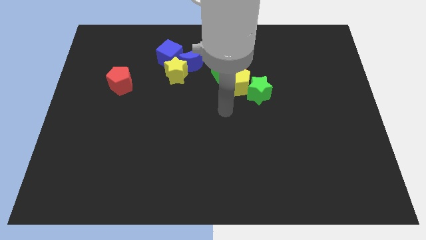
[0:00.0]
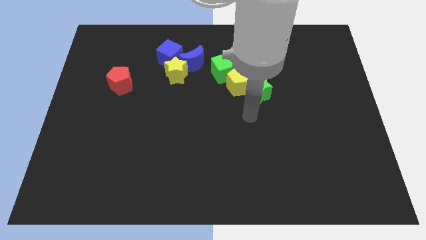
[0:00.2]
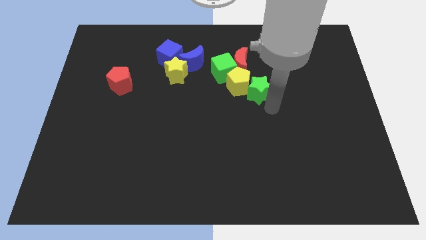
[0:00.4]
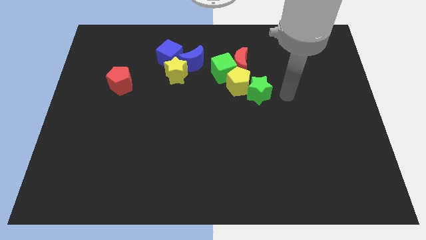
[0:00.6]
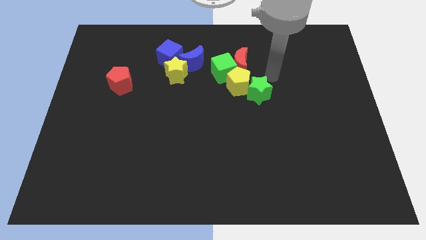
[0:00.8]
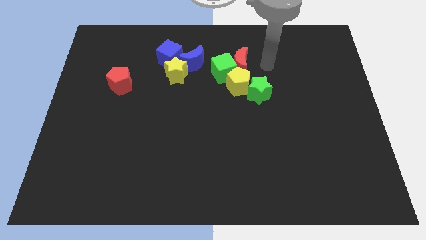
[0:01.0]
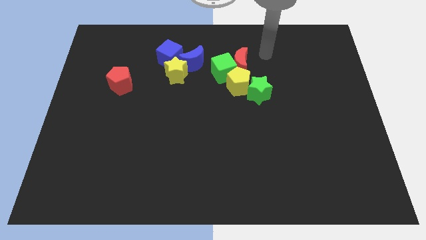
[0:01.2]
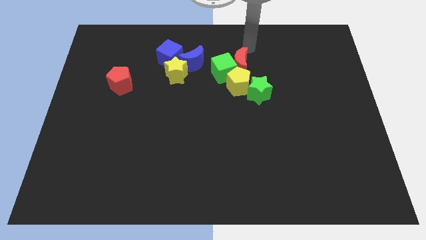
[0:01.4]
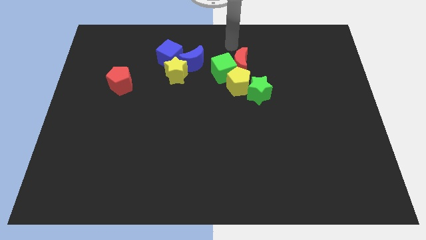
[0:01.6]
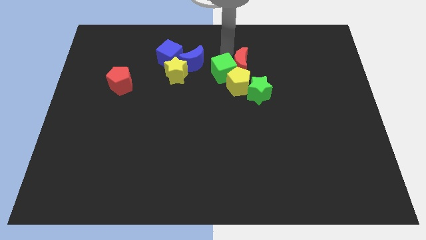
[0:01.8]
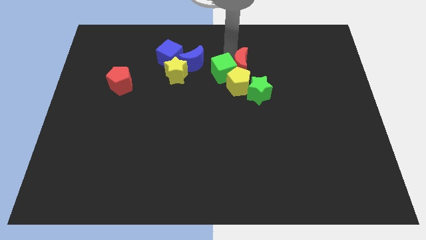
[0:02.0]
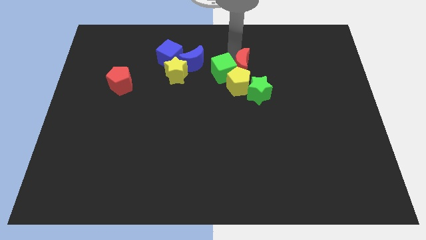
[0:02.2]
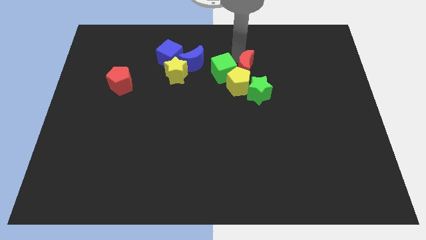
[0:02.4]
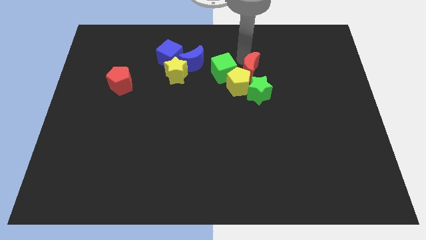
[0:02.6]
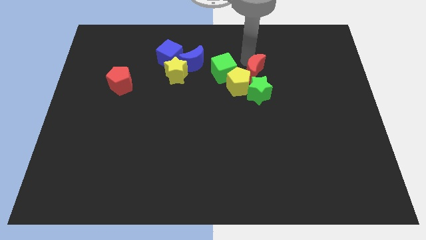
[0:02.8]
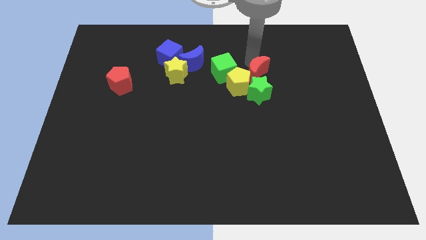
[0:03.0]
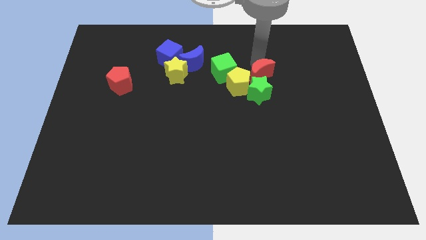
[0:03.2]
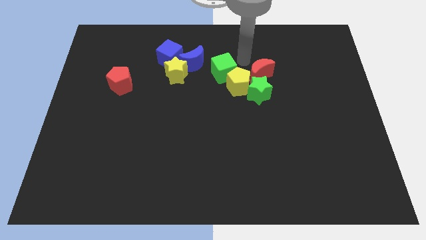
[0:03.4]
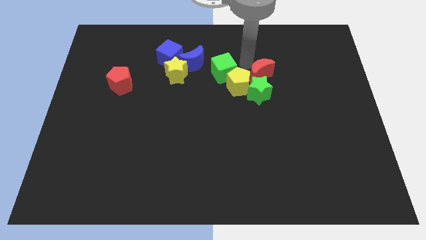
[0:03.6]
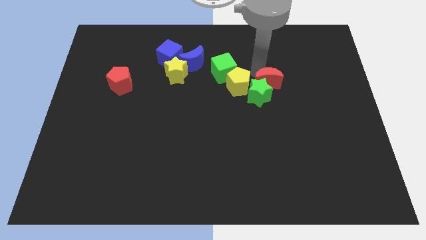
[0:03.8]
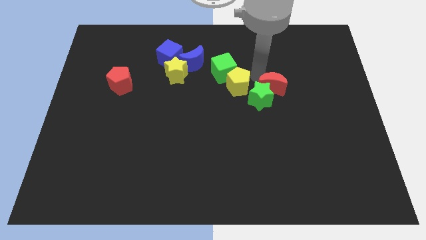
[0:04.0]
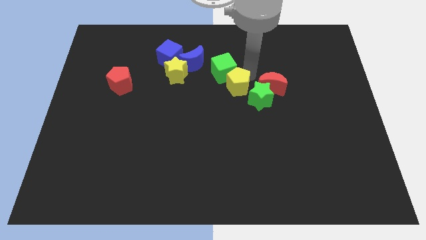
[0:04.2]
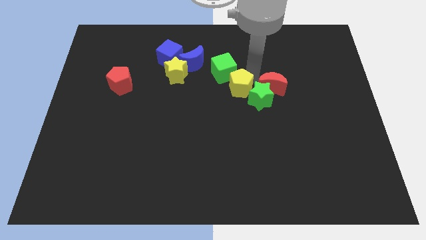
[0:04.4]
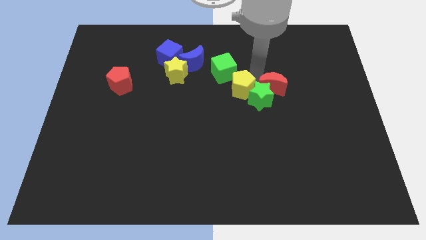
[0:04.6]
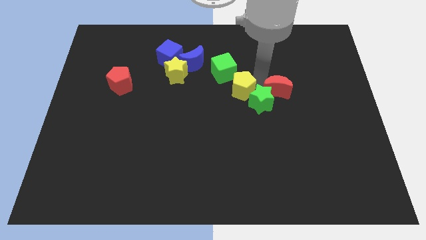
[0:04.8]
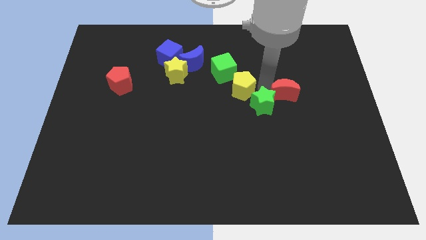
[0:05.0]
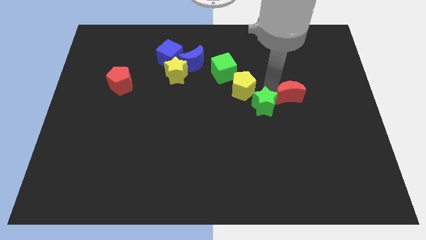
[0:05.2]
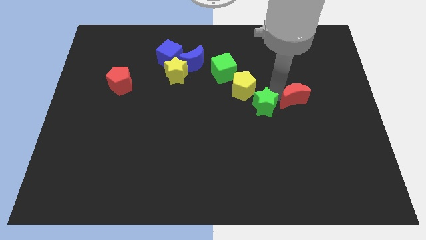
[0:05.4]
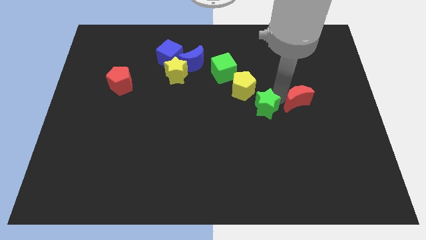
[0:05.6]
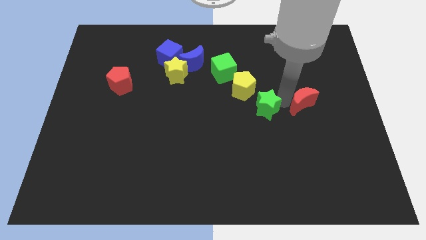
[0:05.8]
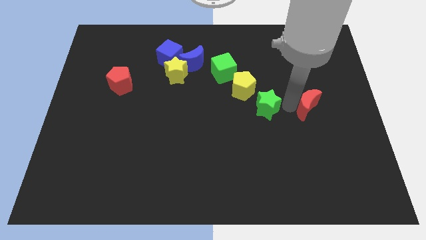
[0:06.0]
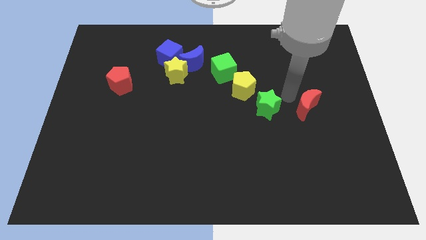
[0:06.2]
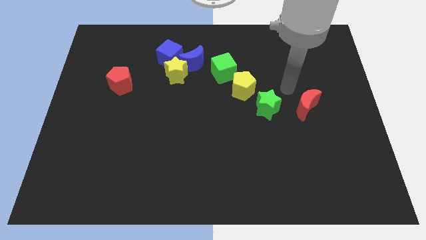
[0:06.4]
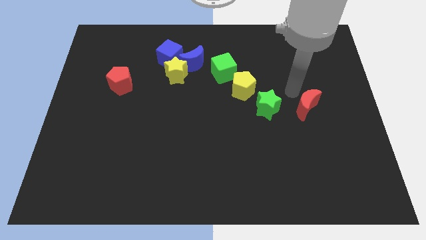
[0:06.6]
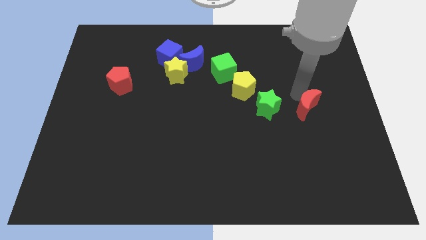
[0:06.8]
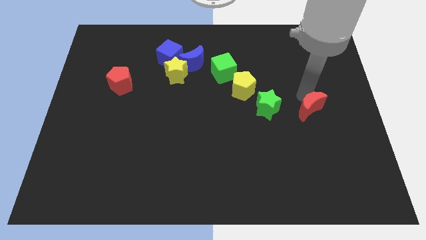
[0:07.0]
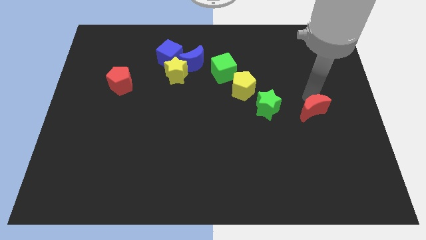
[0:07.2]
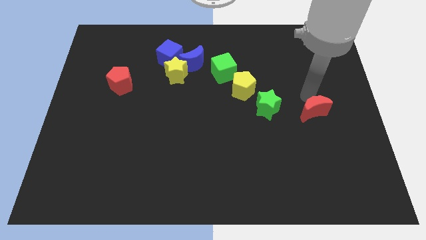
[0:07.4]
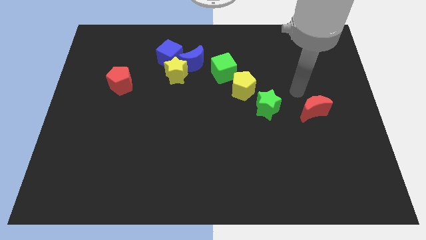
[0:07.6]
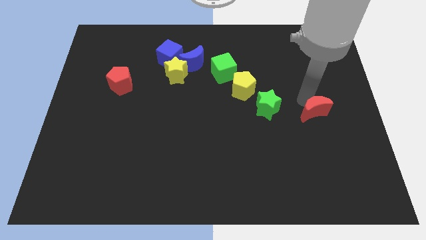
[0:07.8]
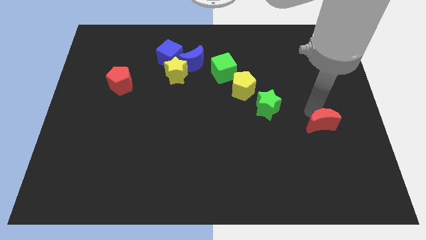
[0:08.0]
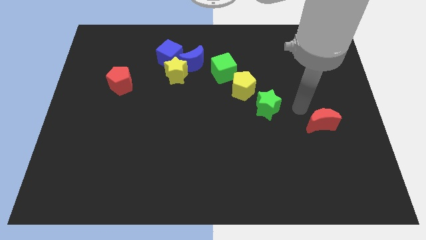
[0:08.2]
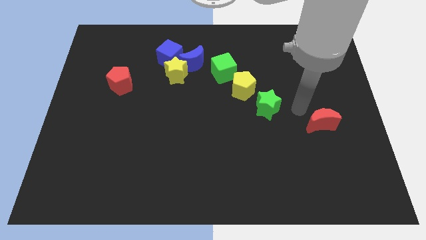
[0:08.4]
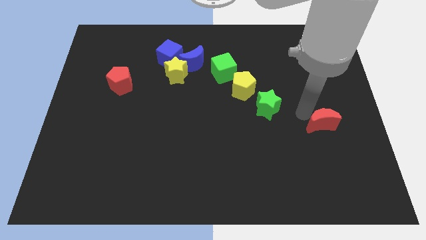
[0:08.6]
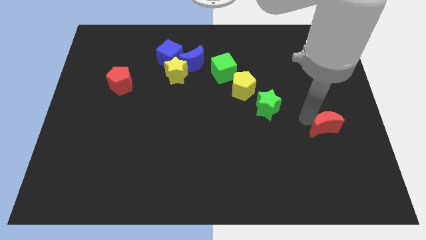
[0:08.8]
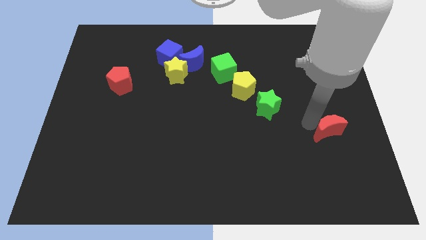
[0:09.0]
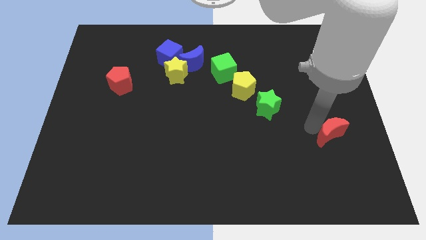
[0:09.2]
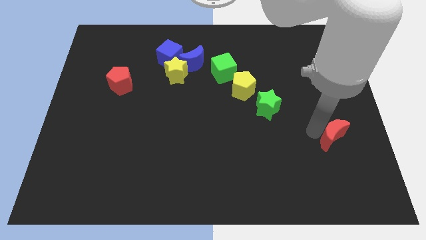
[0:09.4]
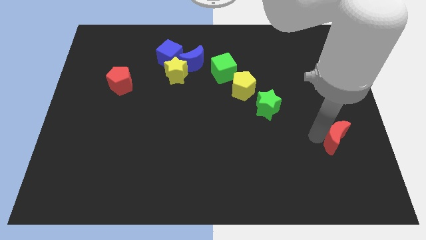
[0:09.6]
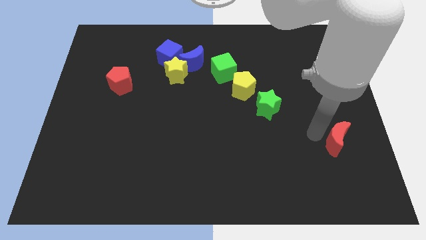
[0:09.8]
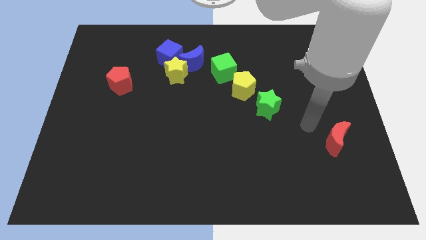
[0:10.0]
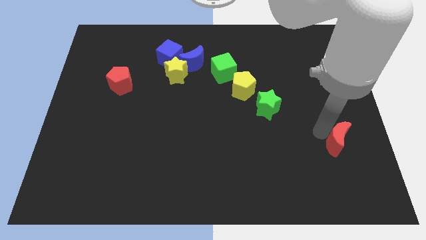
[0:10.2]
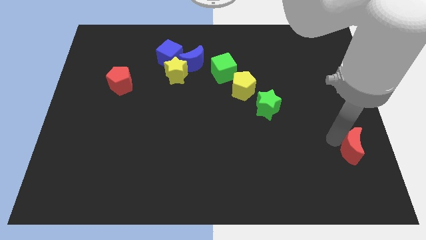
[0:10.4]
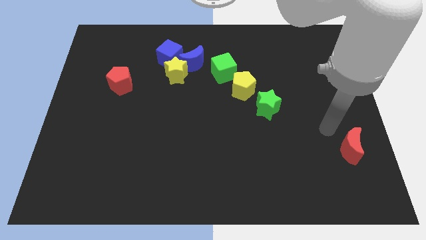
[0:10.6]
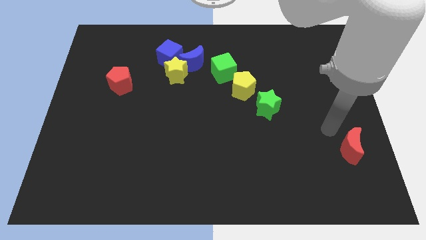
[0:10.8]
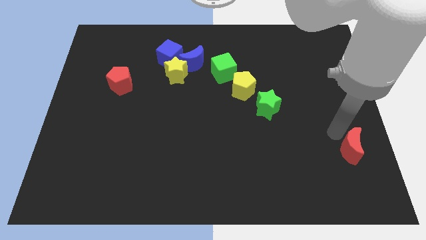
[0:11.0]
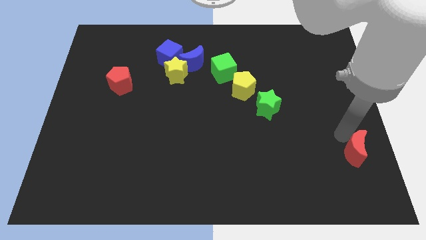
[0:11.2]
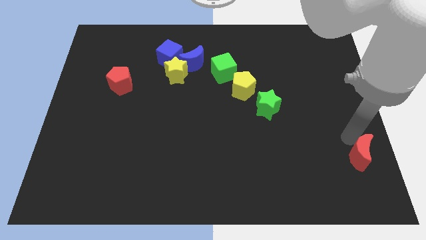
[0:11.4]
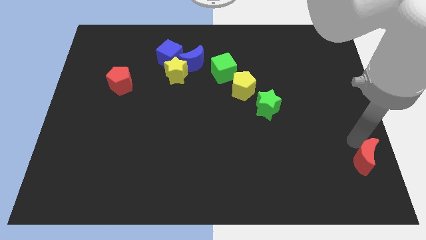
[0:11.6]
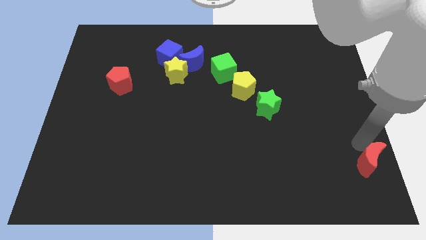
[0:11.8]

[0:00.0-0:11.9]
slide the red moon to the lower right corner
